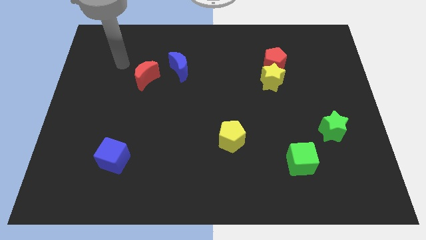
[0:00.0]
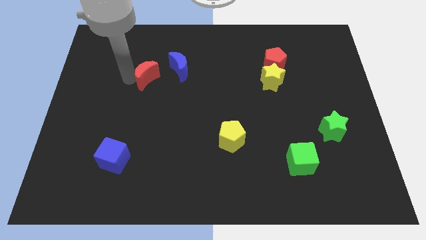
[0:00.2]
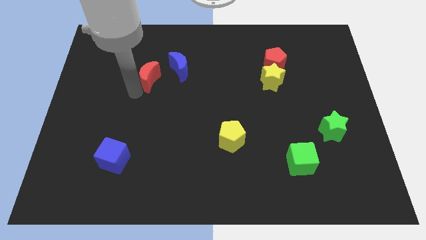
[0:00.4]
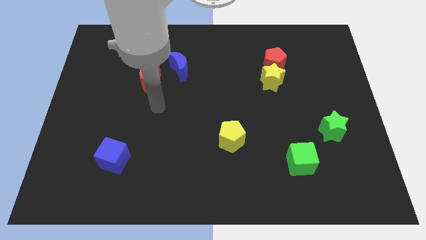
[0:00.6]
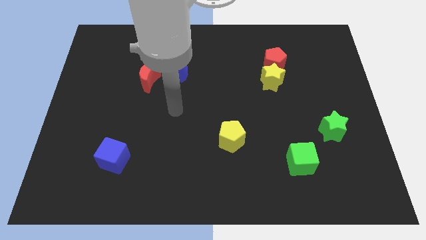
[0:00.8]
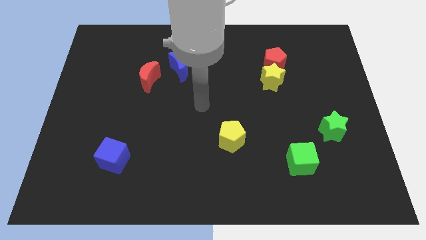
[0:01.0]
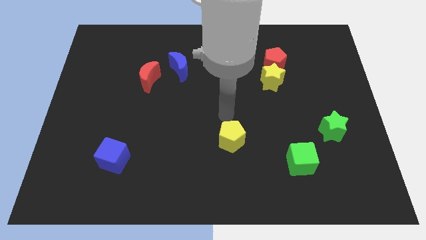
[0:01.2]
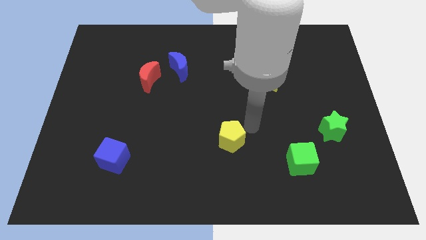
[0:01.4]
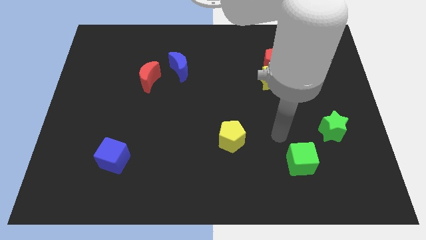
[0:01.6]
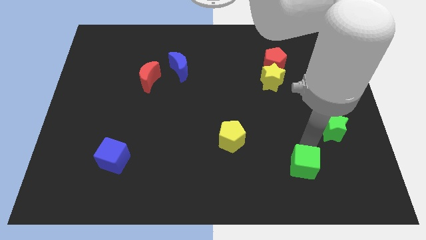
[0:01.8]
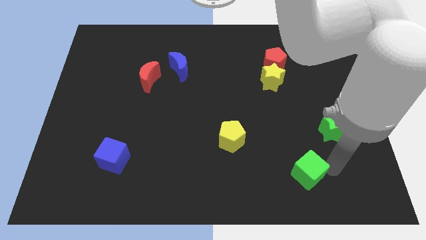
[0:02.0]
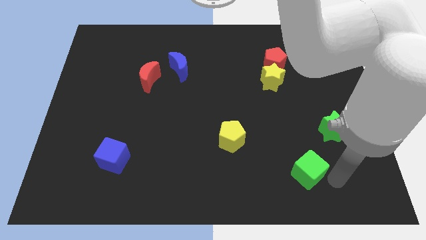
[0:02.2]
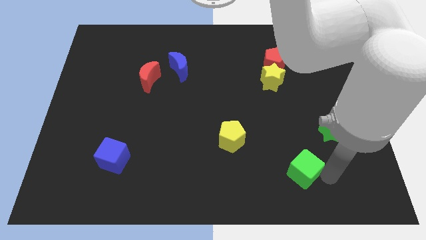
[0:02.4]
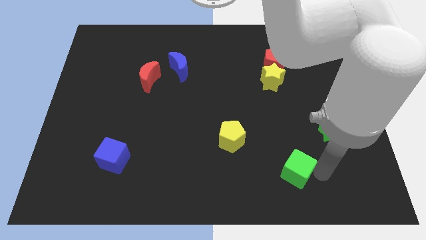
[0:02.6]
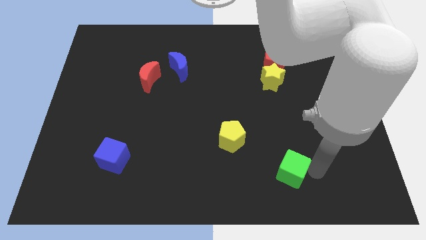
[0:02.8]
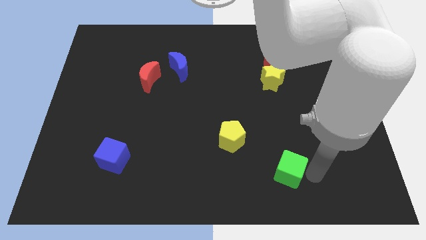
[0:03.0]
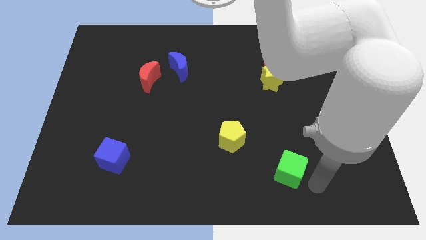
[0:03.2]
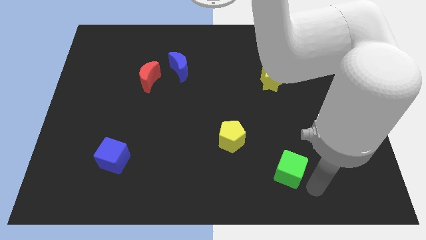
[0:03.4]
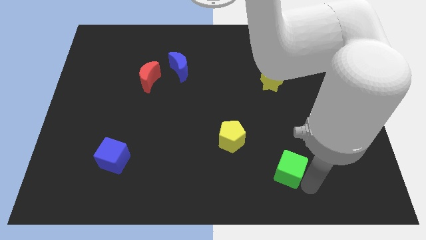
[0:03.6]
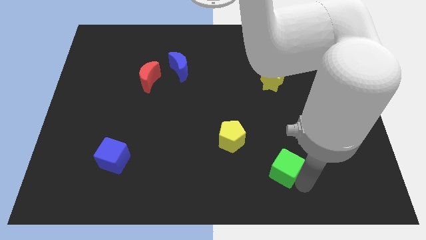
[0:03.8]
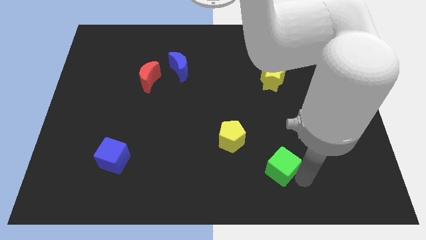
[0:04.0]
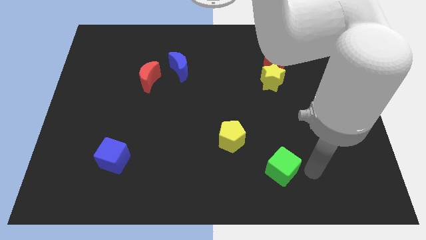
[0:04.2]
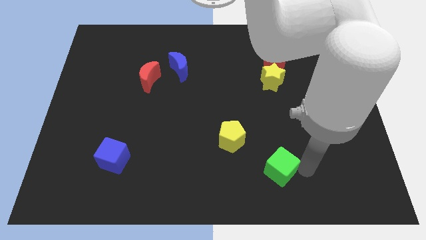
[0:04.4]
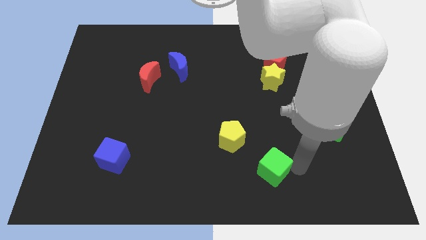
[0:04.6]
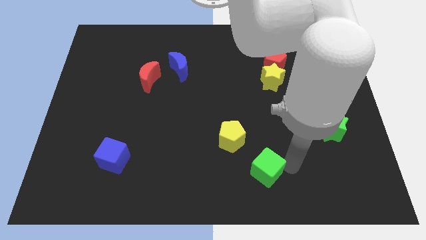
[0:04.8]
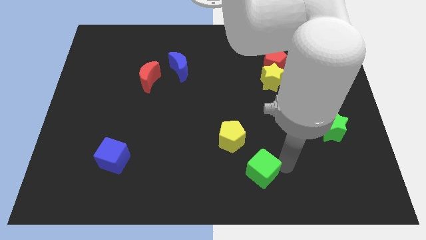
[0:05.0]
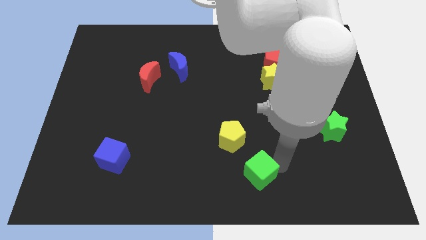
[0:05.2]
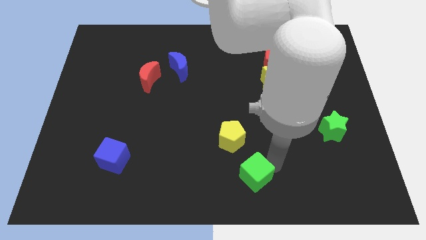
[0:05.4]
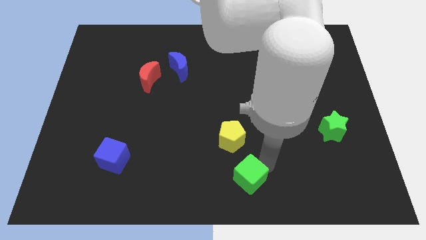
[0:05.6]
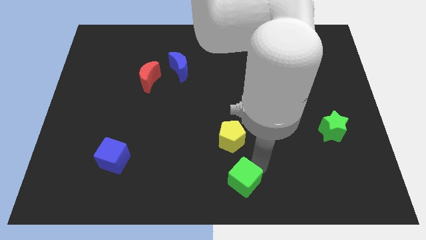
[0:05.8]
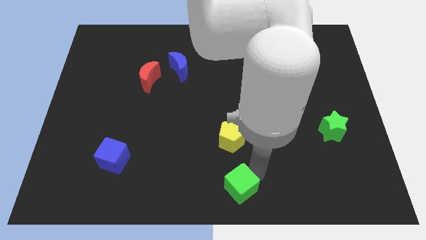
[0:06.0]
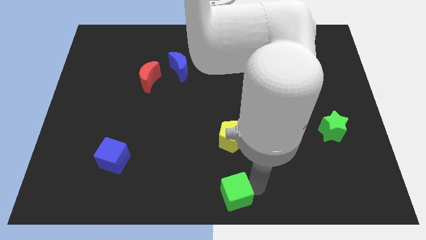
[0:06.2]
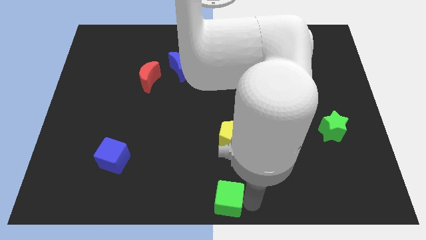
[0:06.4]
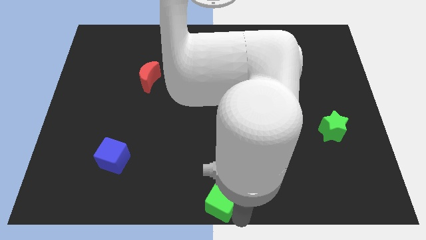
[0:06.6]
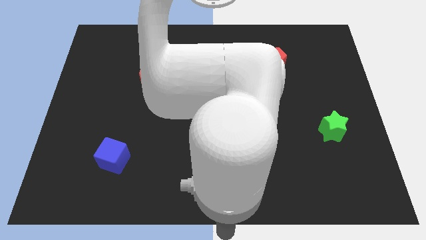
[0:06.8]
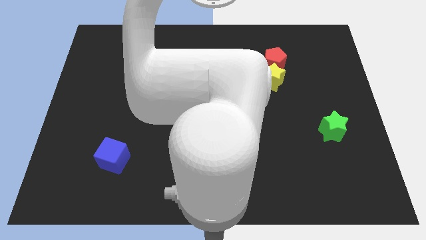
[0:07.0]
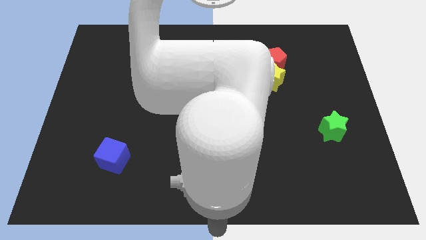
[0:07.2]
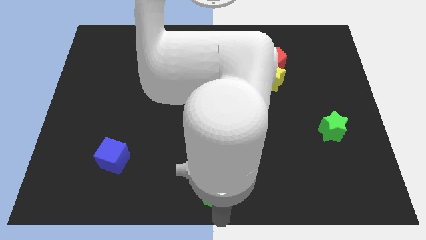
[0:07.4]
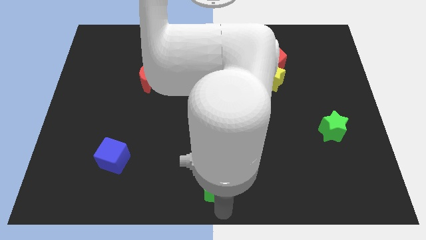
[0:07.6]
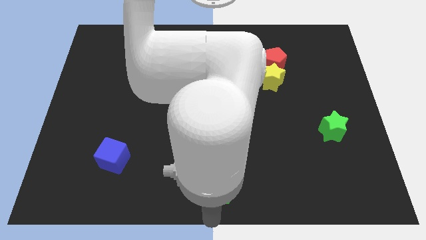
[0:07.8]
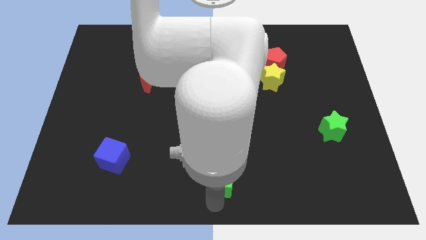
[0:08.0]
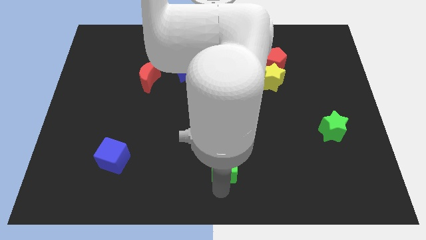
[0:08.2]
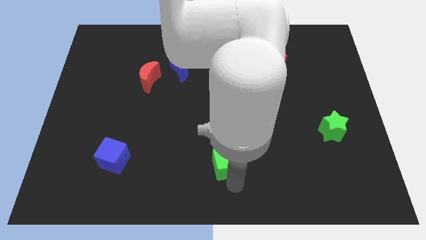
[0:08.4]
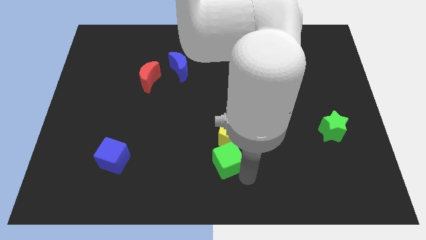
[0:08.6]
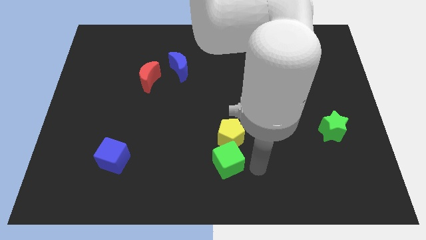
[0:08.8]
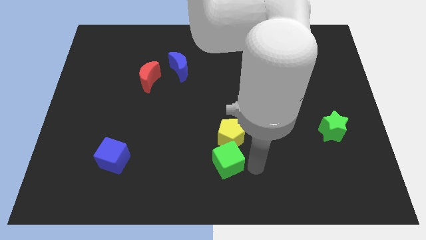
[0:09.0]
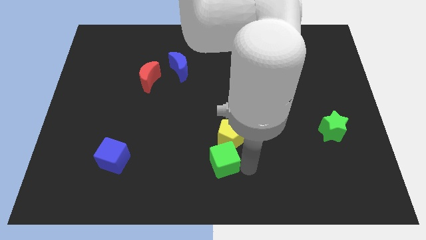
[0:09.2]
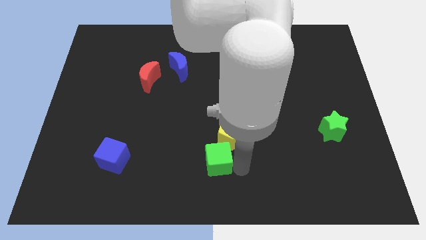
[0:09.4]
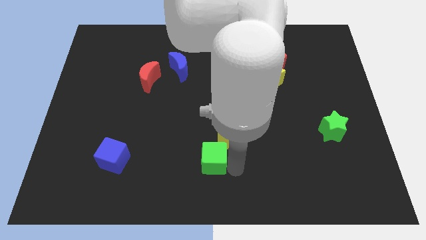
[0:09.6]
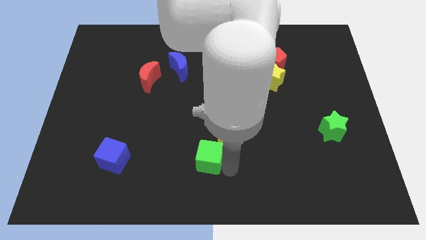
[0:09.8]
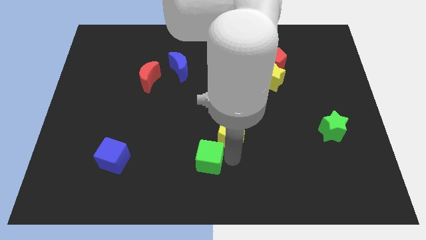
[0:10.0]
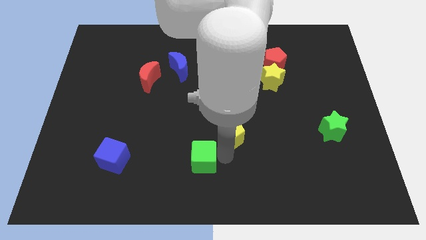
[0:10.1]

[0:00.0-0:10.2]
slide the green cube left

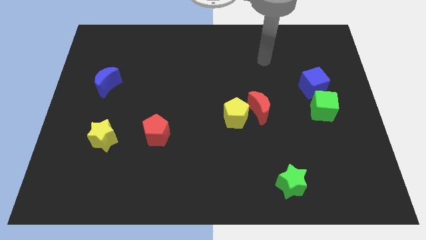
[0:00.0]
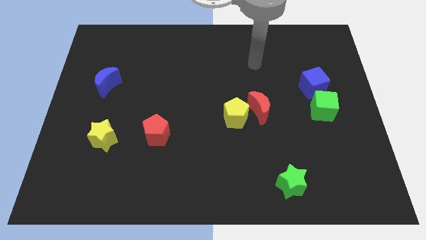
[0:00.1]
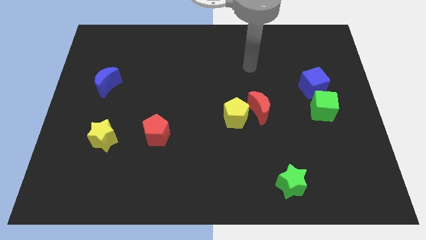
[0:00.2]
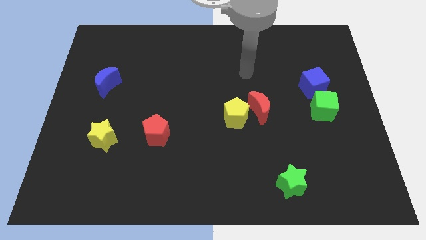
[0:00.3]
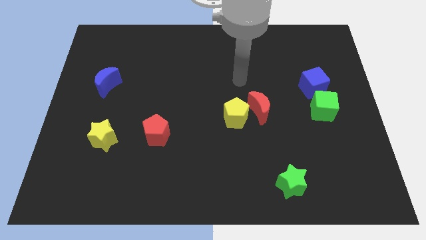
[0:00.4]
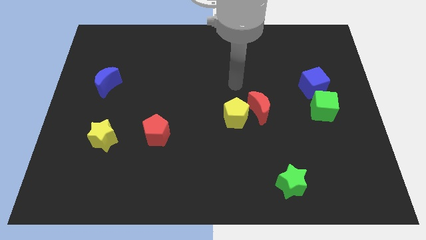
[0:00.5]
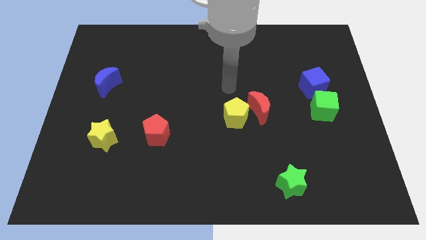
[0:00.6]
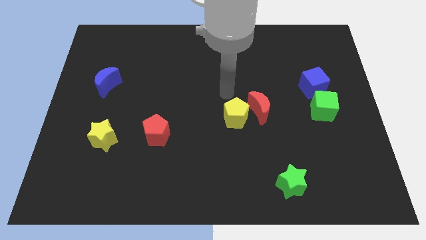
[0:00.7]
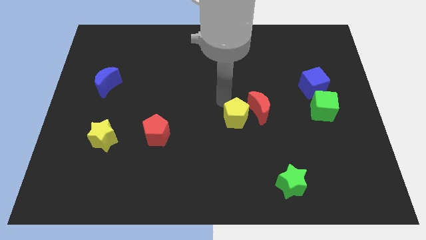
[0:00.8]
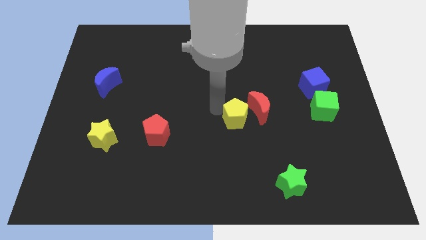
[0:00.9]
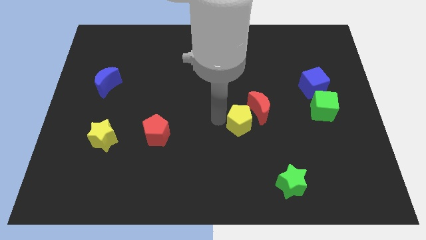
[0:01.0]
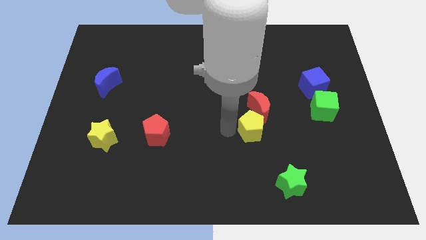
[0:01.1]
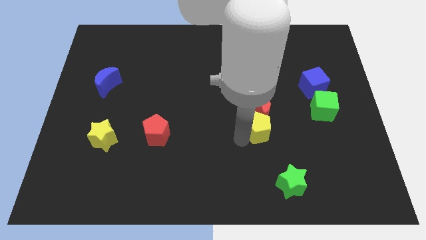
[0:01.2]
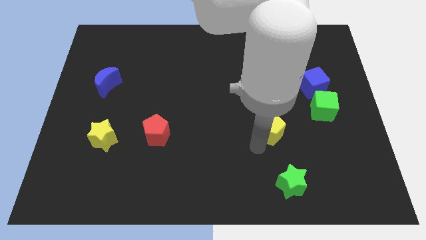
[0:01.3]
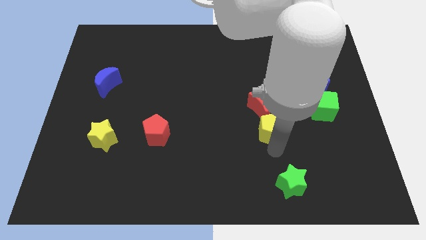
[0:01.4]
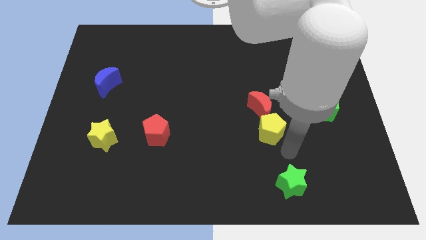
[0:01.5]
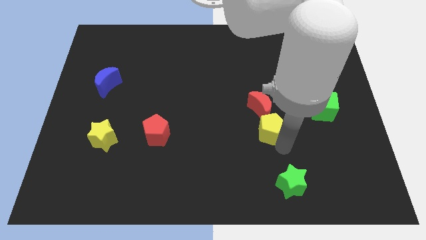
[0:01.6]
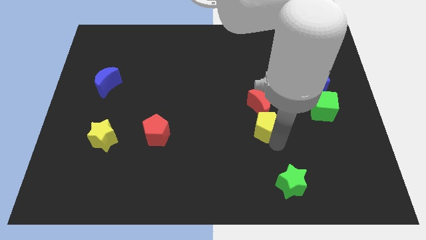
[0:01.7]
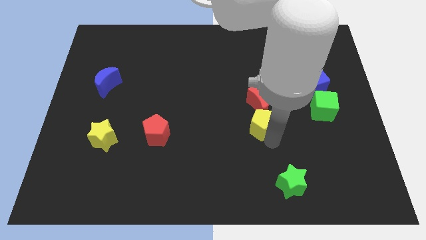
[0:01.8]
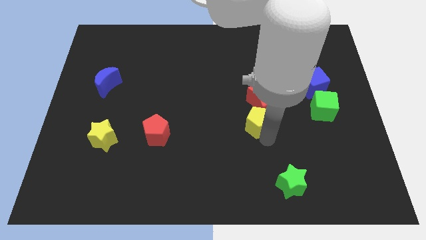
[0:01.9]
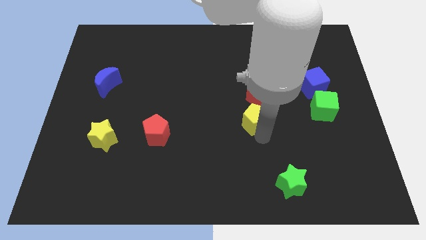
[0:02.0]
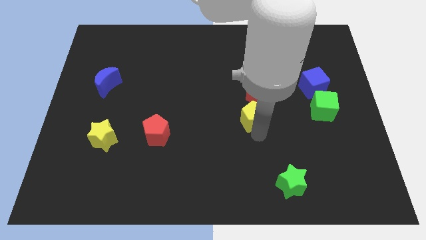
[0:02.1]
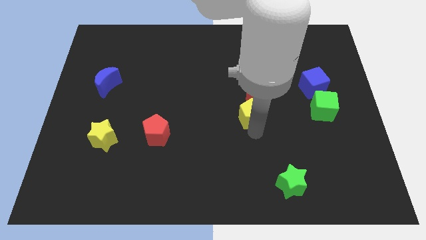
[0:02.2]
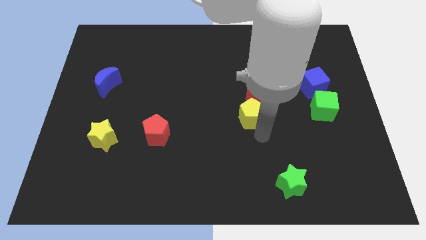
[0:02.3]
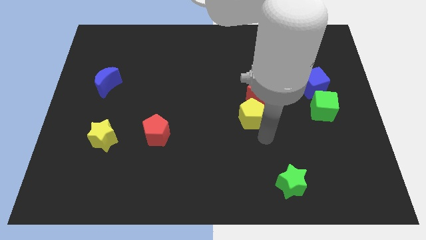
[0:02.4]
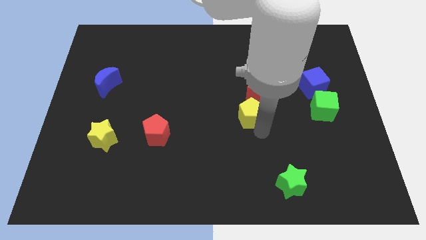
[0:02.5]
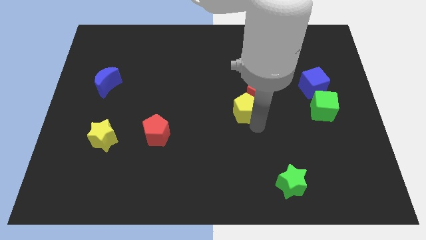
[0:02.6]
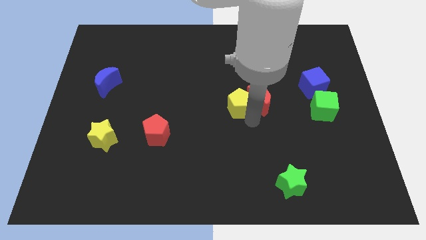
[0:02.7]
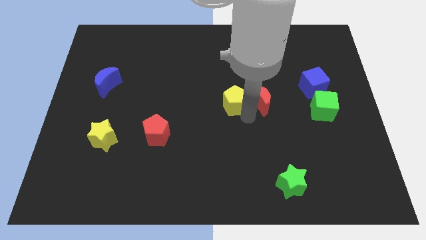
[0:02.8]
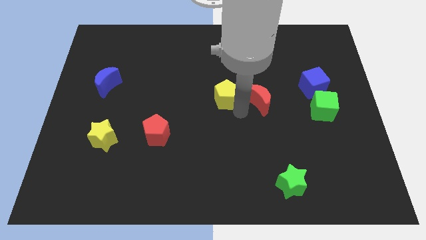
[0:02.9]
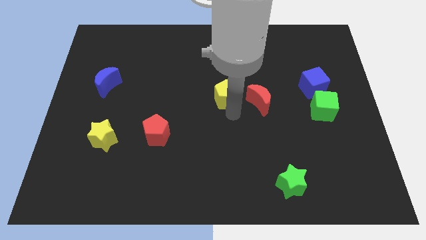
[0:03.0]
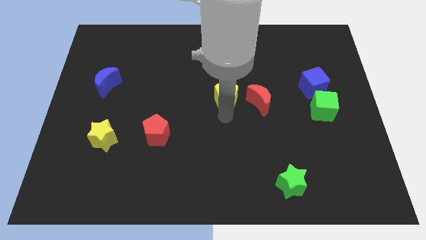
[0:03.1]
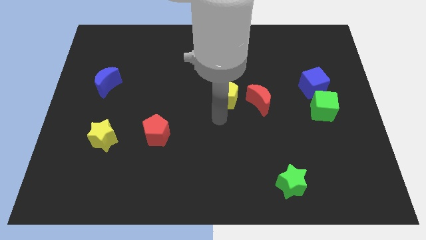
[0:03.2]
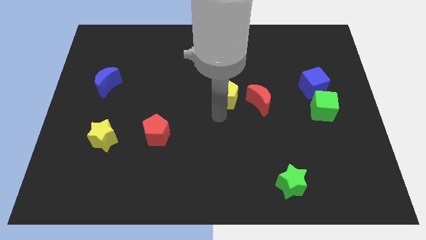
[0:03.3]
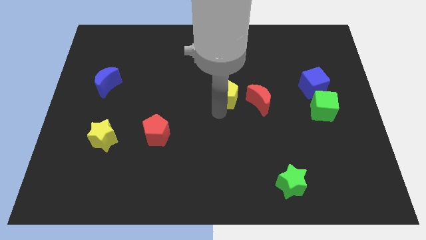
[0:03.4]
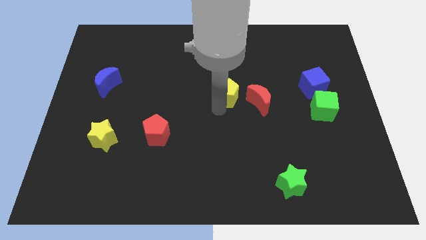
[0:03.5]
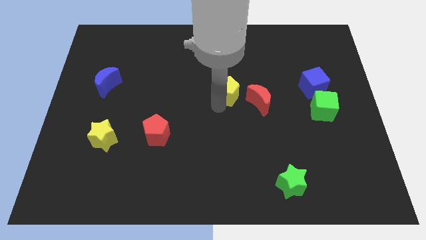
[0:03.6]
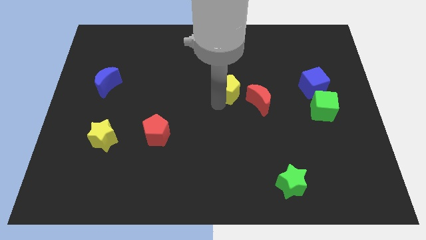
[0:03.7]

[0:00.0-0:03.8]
push the yellow pentagon a little bit upwards
